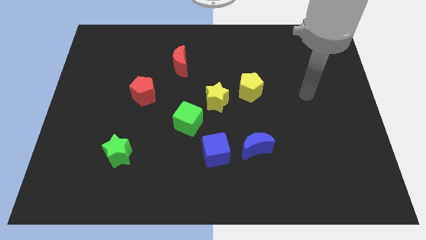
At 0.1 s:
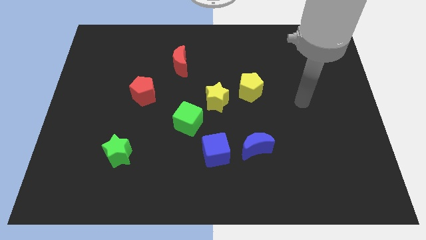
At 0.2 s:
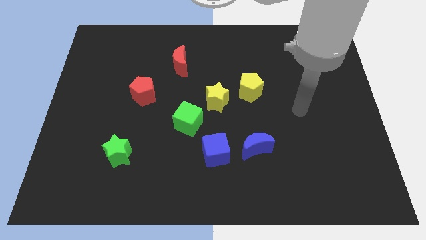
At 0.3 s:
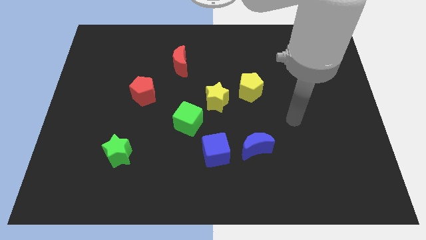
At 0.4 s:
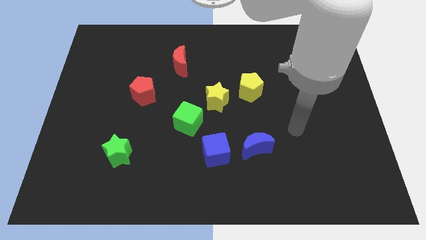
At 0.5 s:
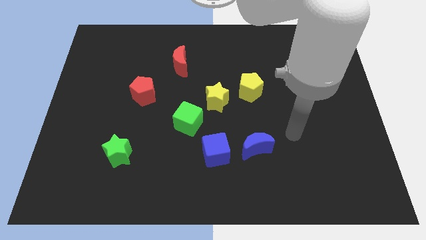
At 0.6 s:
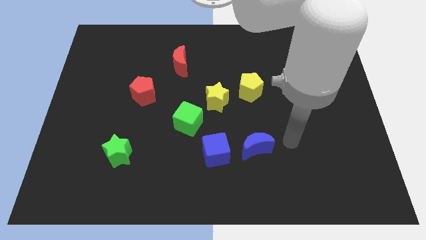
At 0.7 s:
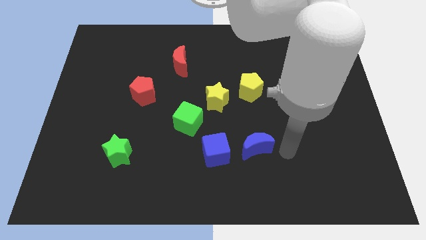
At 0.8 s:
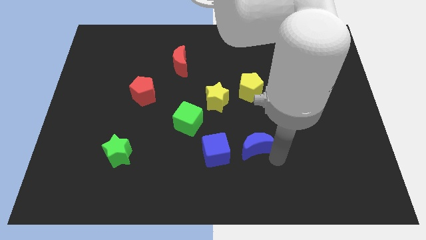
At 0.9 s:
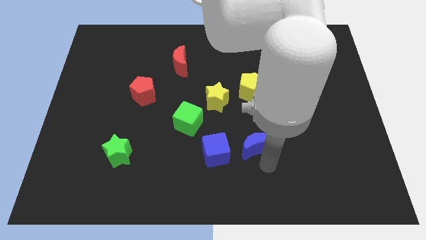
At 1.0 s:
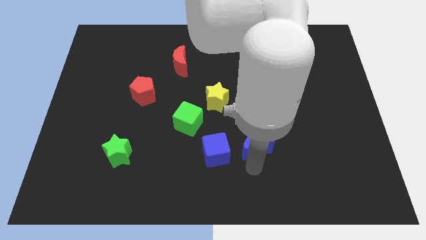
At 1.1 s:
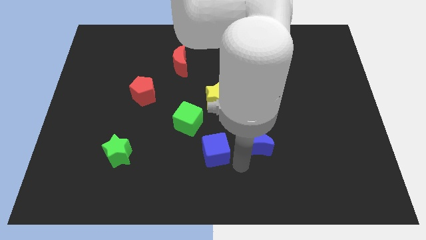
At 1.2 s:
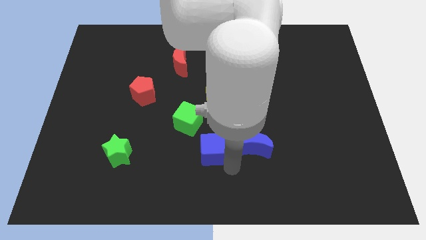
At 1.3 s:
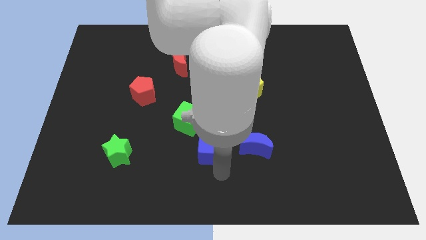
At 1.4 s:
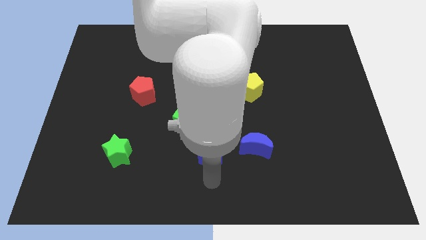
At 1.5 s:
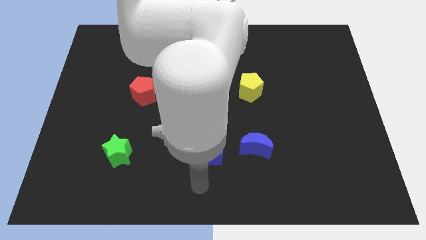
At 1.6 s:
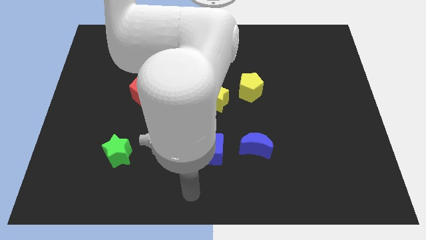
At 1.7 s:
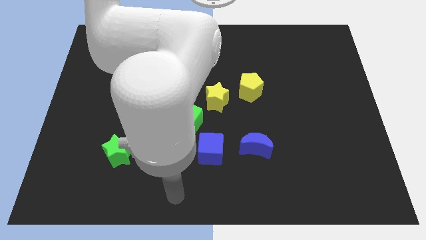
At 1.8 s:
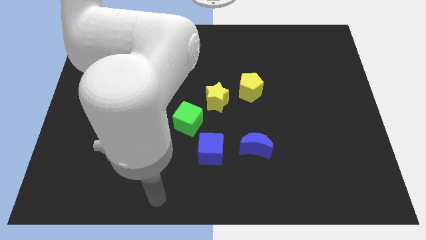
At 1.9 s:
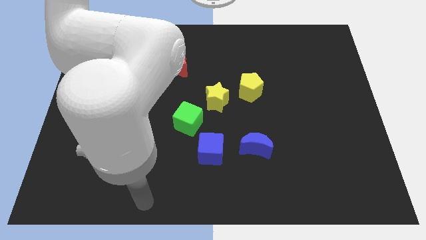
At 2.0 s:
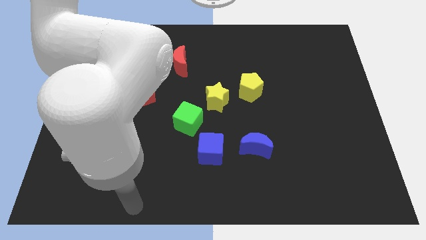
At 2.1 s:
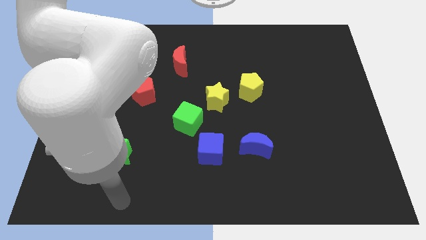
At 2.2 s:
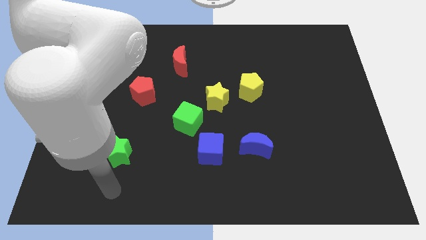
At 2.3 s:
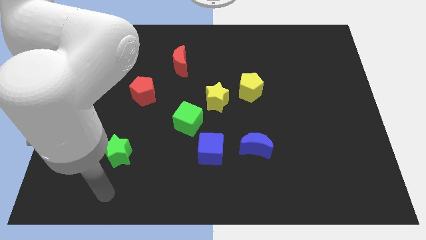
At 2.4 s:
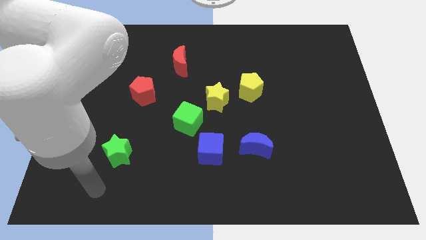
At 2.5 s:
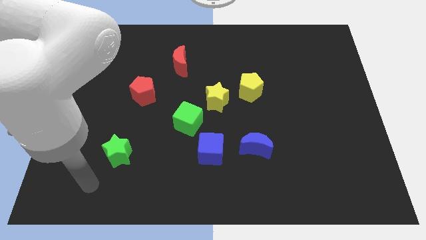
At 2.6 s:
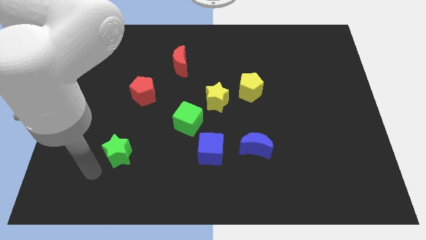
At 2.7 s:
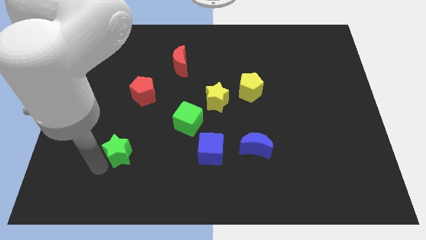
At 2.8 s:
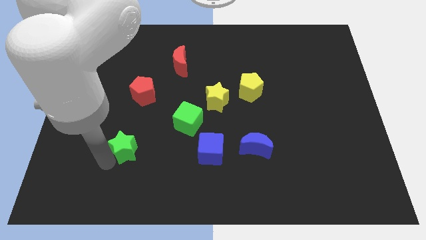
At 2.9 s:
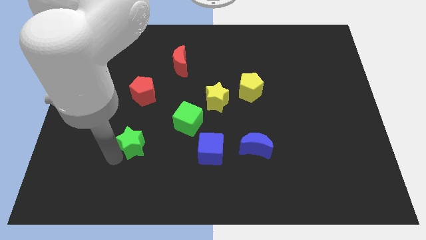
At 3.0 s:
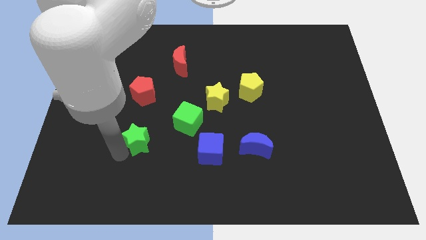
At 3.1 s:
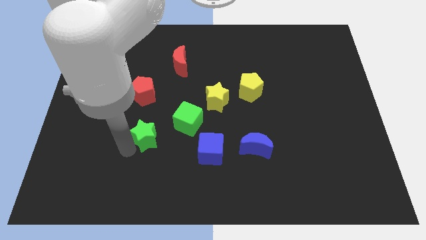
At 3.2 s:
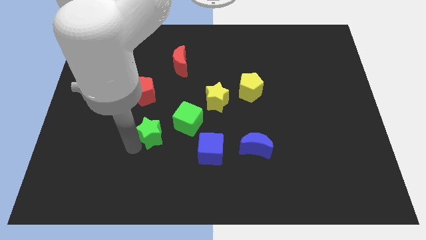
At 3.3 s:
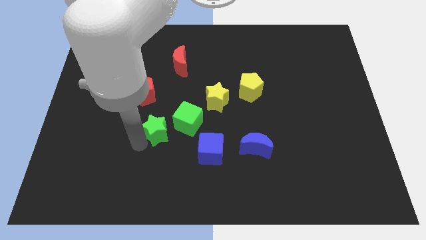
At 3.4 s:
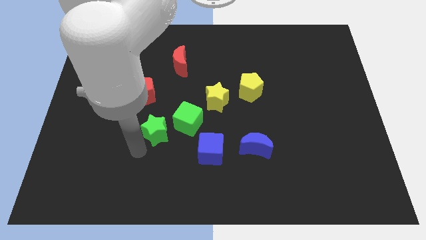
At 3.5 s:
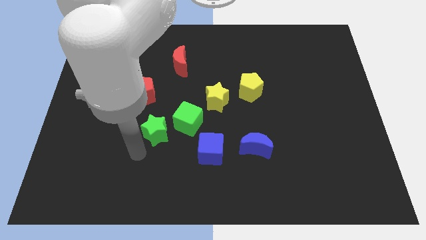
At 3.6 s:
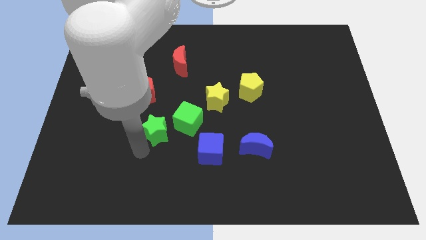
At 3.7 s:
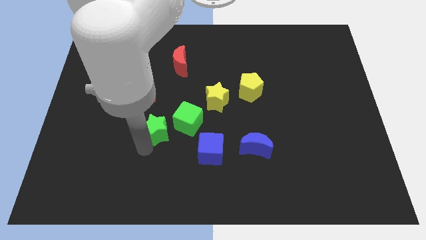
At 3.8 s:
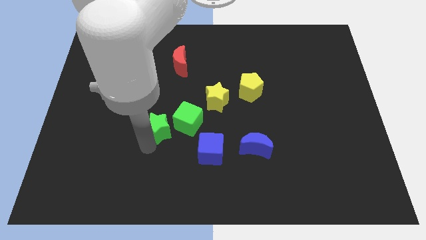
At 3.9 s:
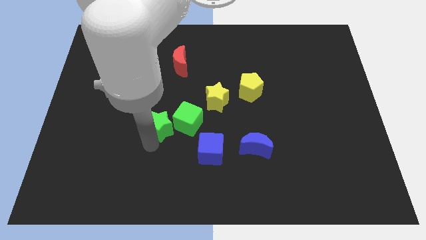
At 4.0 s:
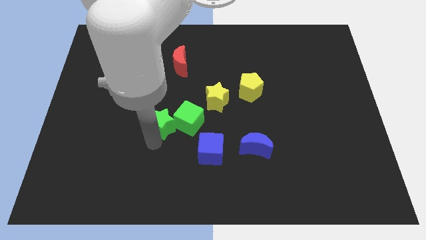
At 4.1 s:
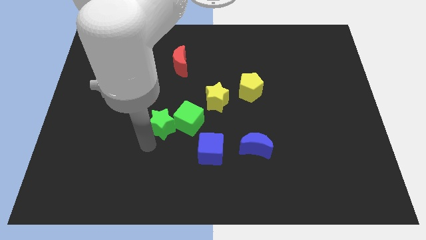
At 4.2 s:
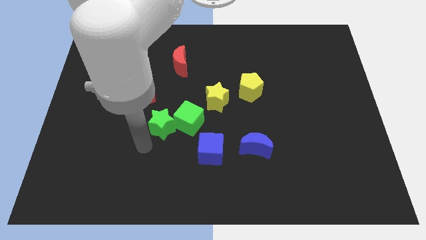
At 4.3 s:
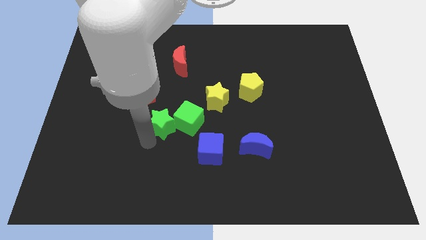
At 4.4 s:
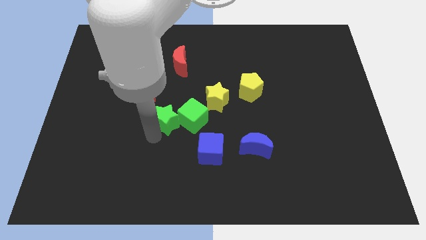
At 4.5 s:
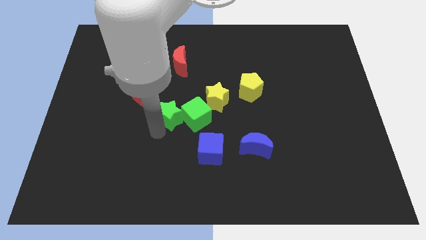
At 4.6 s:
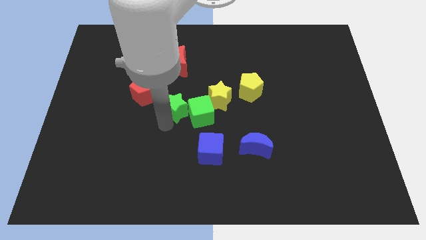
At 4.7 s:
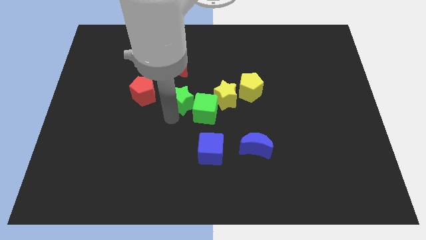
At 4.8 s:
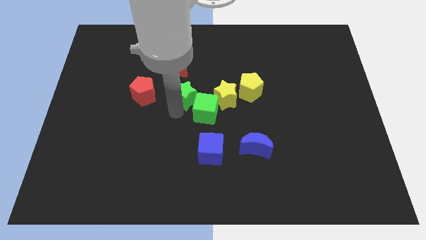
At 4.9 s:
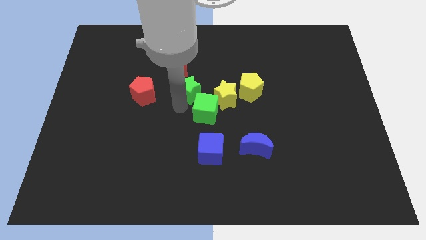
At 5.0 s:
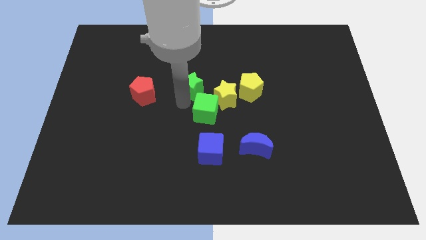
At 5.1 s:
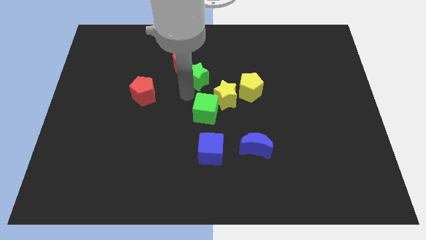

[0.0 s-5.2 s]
move the green star to the right of the red moon

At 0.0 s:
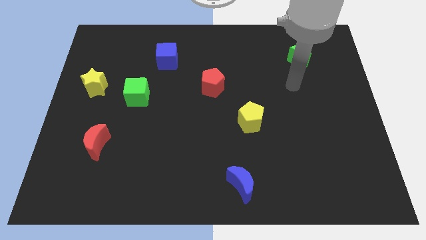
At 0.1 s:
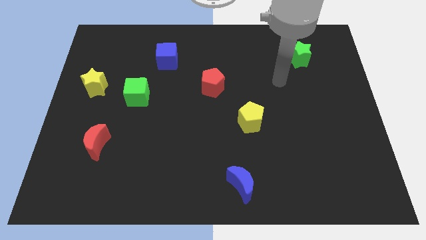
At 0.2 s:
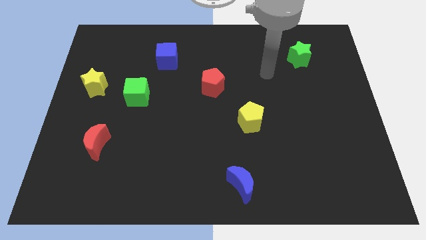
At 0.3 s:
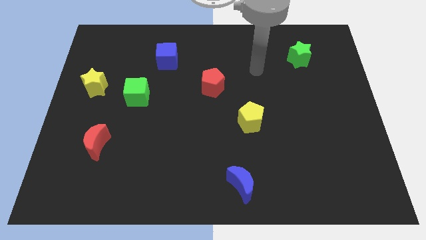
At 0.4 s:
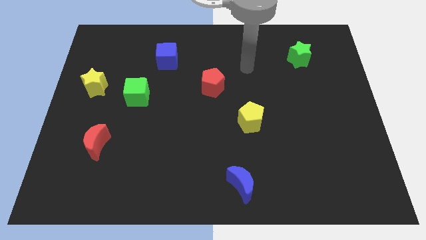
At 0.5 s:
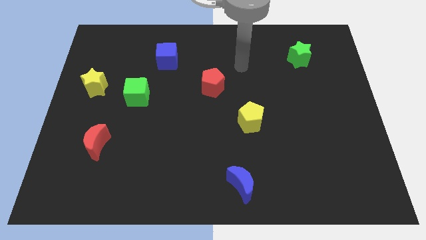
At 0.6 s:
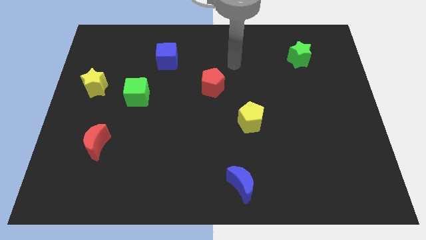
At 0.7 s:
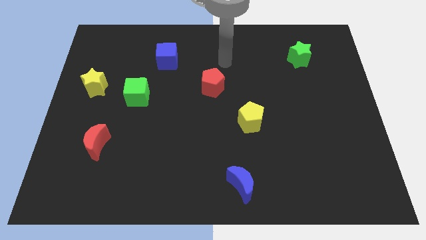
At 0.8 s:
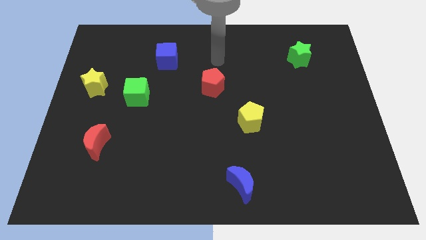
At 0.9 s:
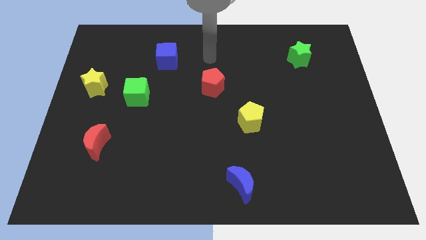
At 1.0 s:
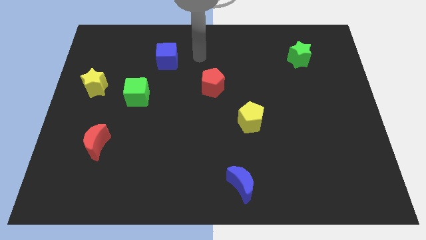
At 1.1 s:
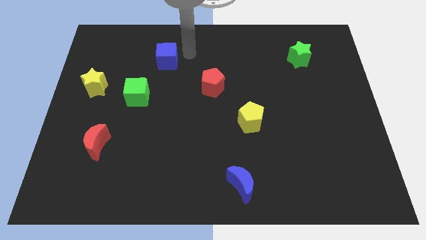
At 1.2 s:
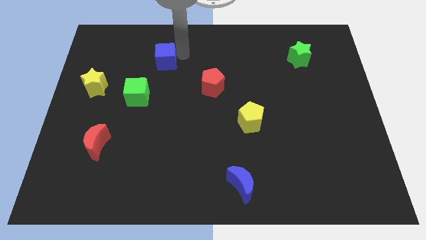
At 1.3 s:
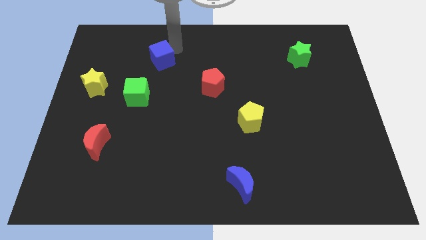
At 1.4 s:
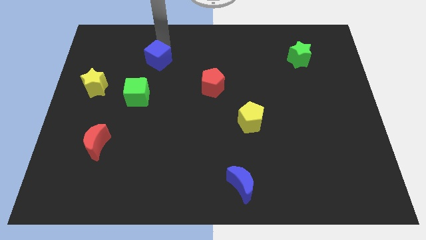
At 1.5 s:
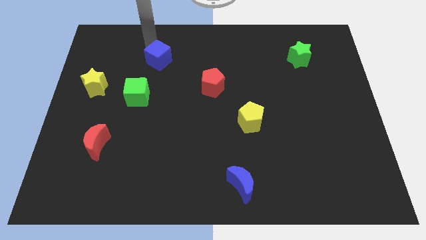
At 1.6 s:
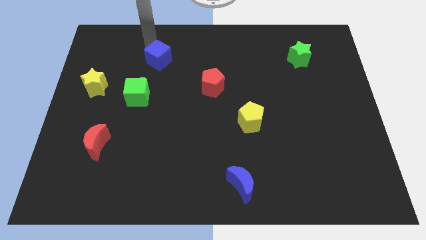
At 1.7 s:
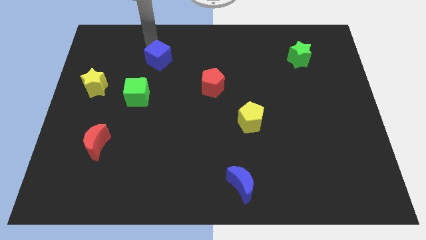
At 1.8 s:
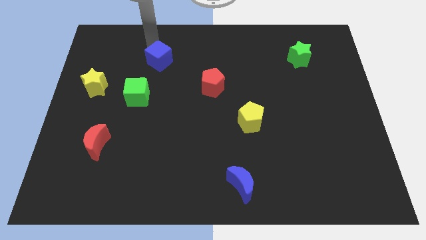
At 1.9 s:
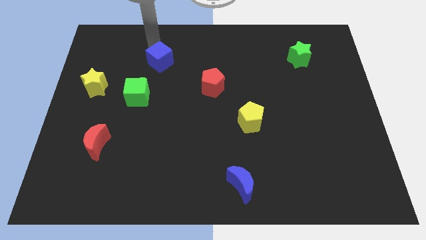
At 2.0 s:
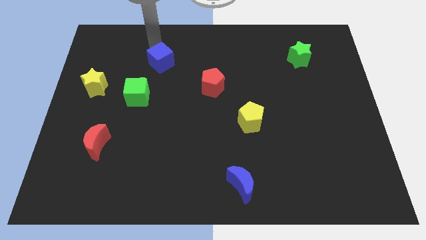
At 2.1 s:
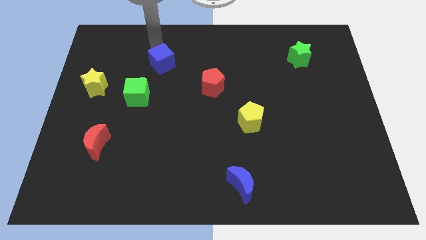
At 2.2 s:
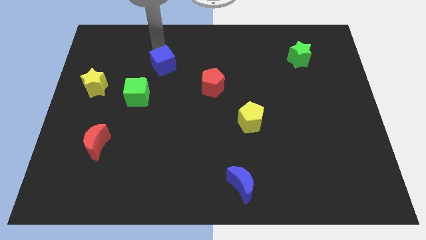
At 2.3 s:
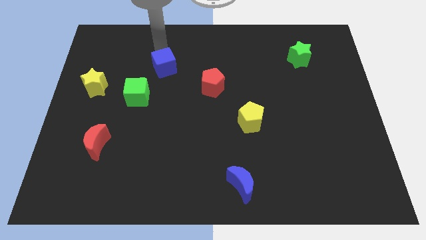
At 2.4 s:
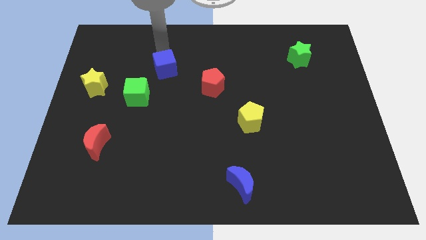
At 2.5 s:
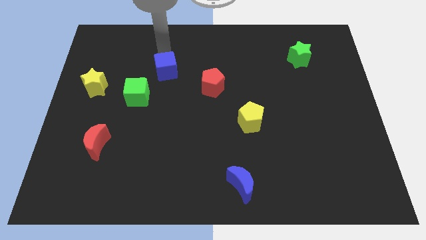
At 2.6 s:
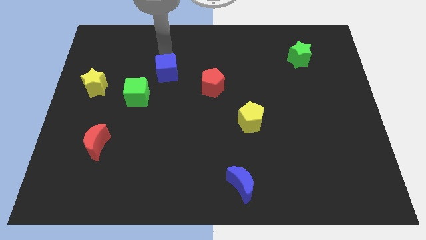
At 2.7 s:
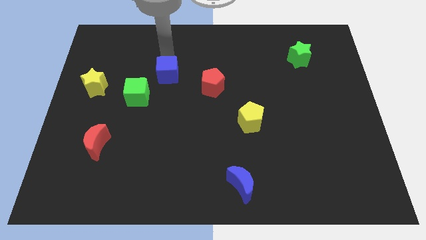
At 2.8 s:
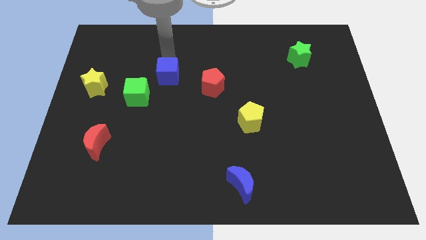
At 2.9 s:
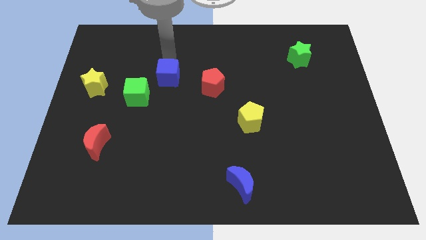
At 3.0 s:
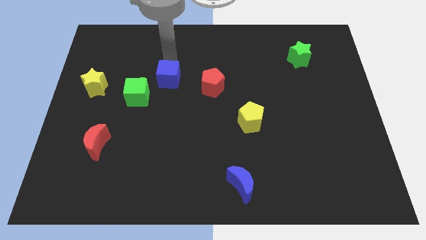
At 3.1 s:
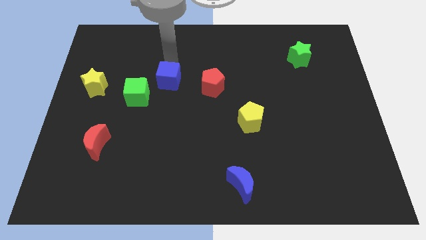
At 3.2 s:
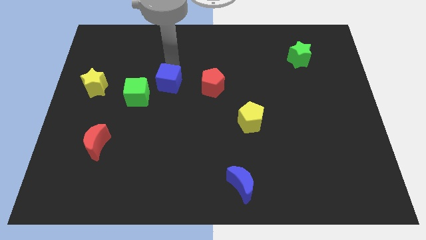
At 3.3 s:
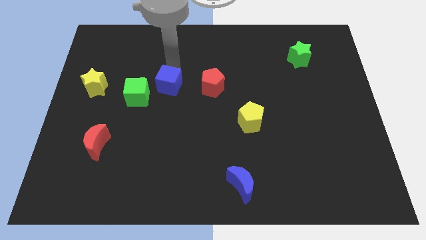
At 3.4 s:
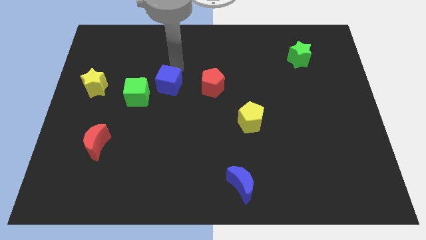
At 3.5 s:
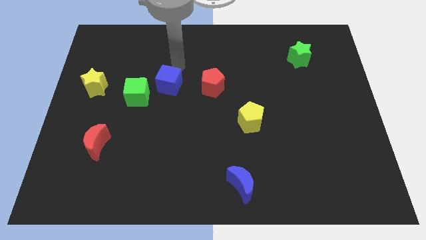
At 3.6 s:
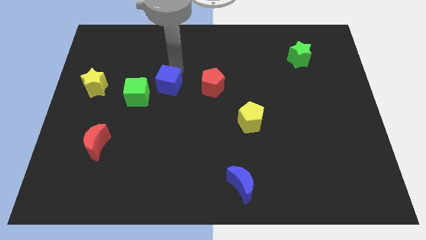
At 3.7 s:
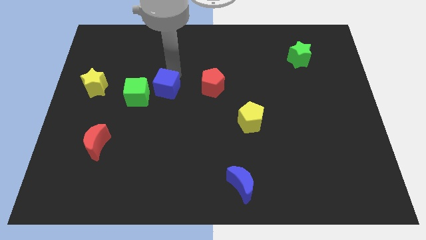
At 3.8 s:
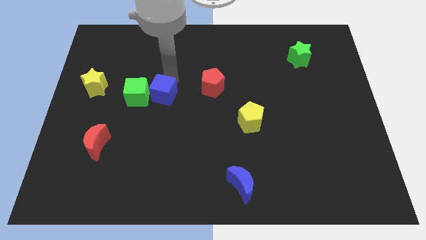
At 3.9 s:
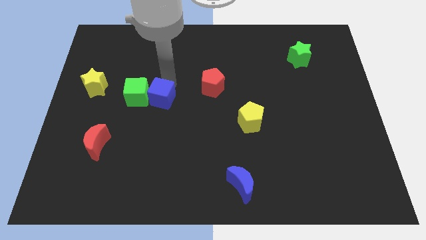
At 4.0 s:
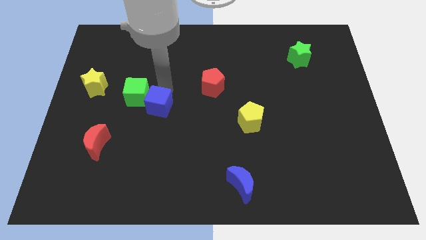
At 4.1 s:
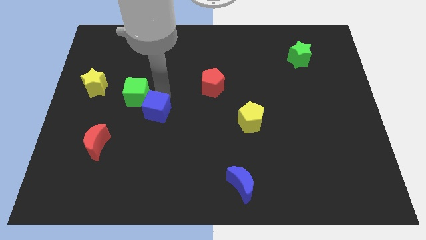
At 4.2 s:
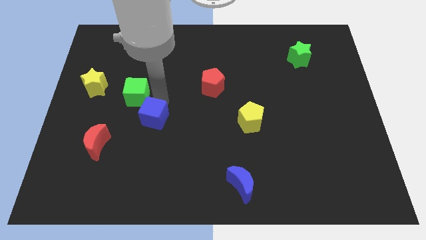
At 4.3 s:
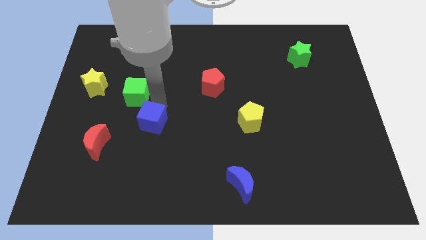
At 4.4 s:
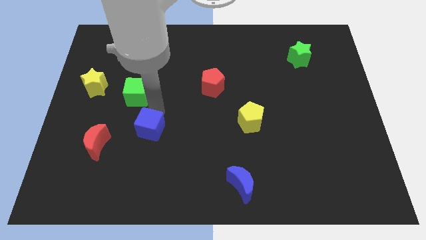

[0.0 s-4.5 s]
put the blue cube just right of the red moon
